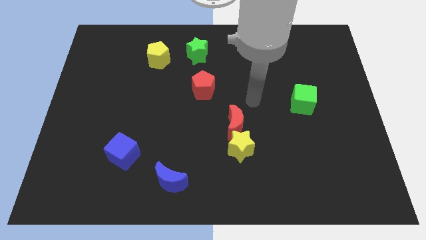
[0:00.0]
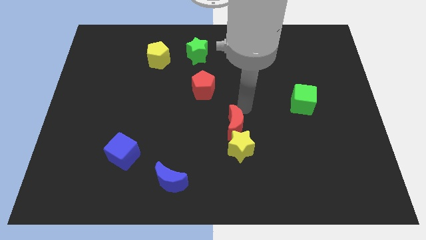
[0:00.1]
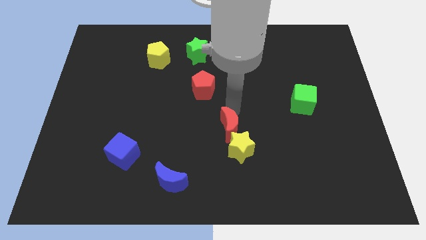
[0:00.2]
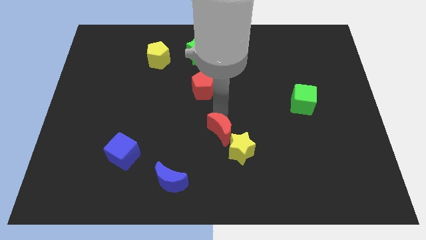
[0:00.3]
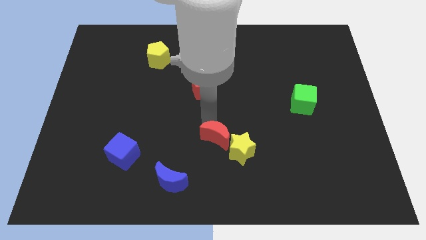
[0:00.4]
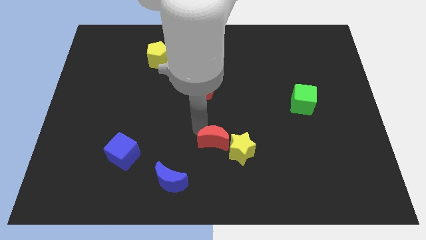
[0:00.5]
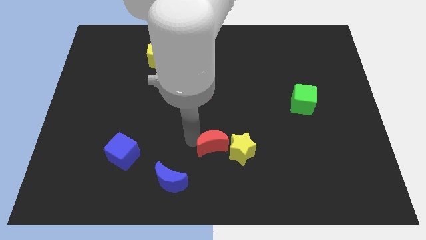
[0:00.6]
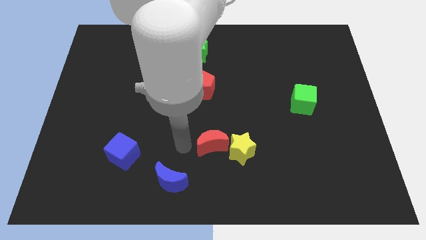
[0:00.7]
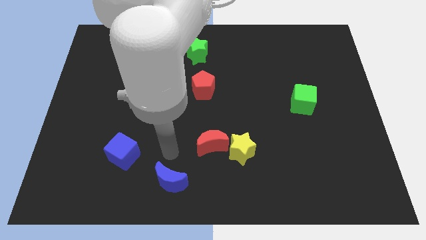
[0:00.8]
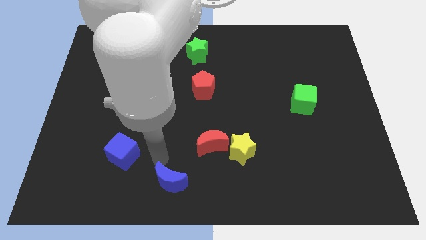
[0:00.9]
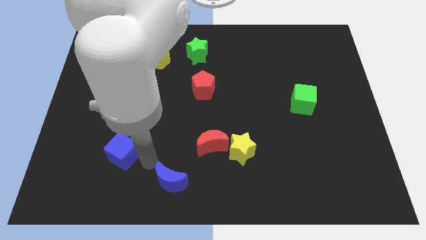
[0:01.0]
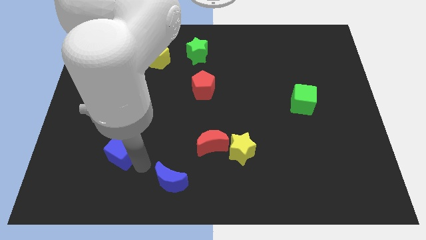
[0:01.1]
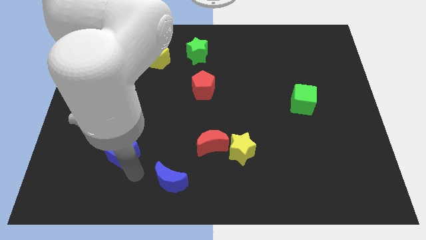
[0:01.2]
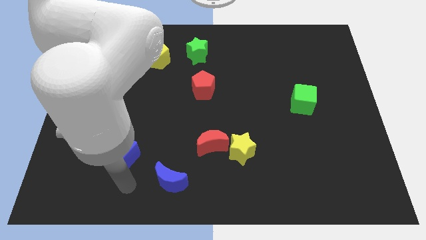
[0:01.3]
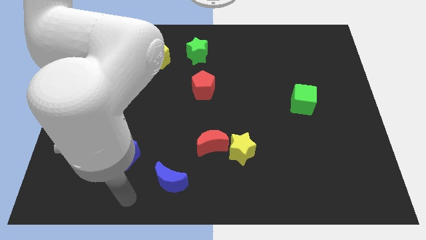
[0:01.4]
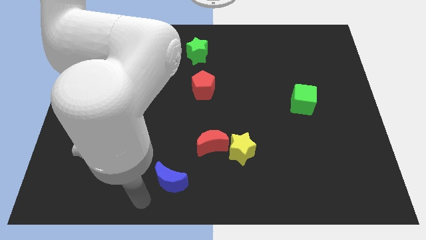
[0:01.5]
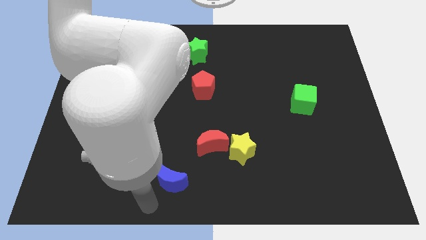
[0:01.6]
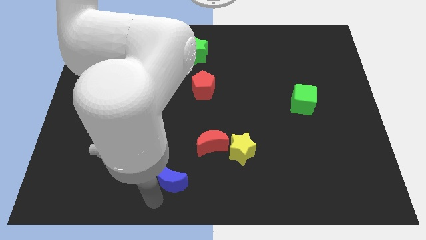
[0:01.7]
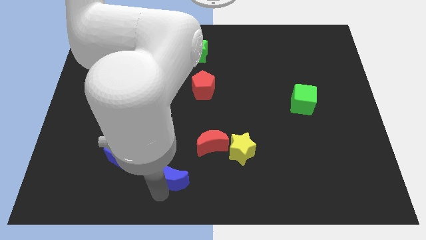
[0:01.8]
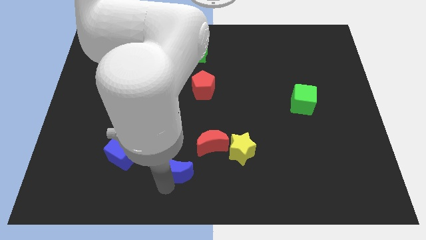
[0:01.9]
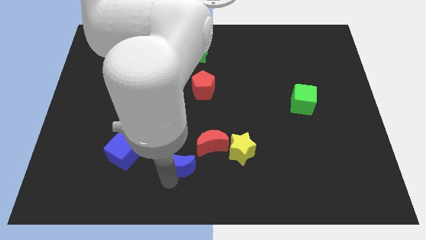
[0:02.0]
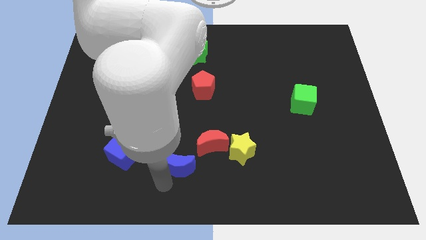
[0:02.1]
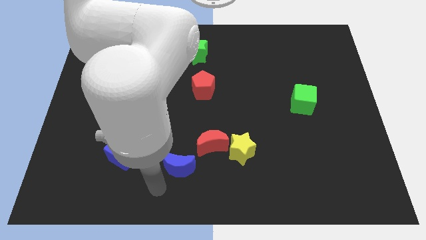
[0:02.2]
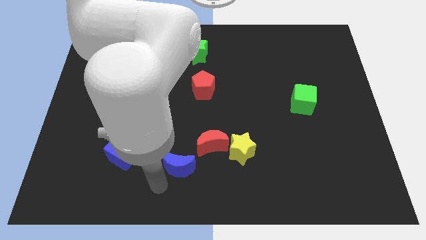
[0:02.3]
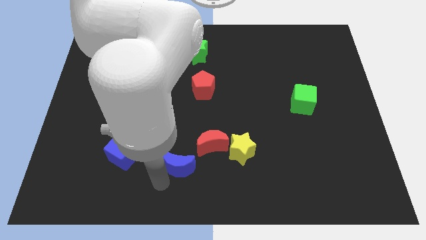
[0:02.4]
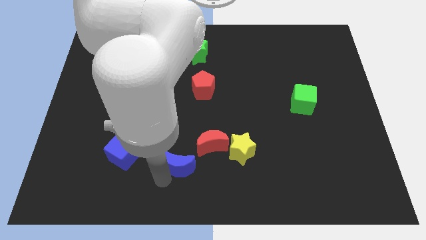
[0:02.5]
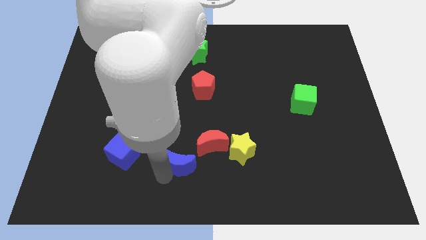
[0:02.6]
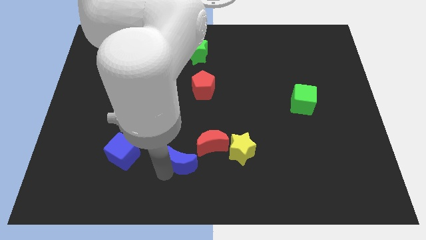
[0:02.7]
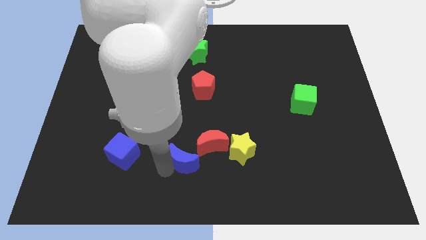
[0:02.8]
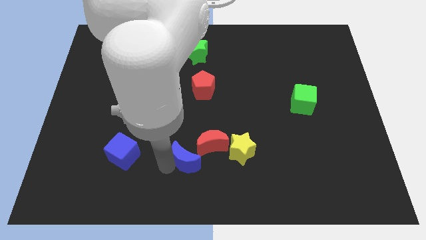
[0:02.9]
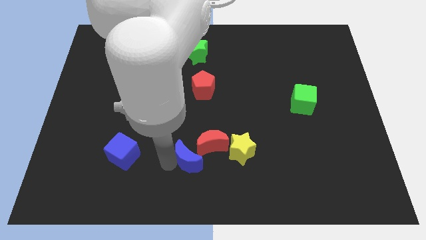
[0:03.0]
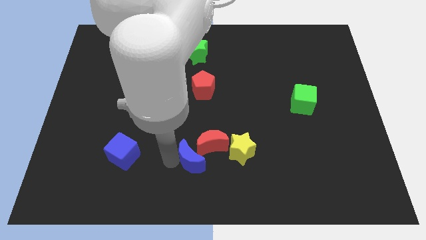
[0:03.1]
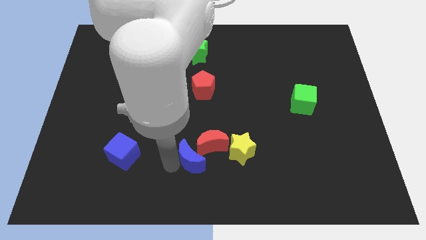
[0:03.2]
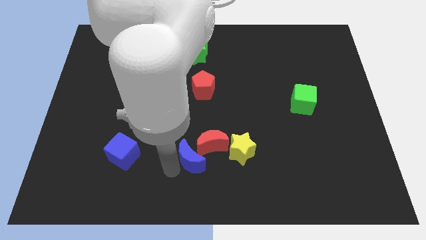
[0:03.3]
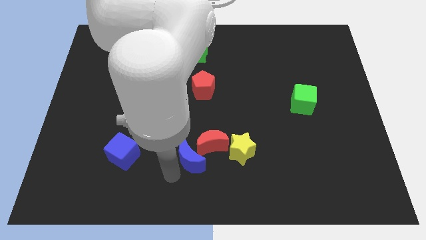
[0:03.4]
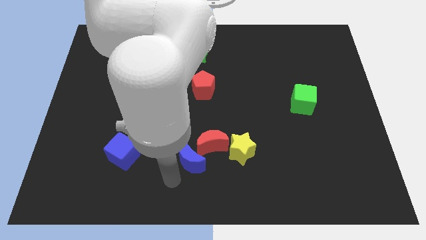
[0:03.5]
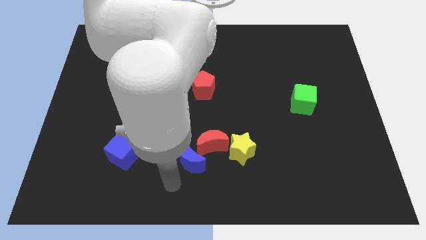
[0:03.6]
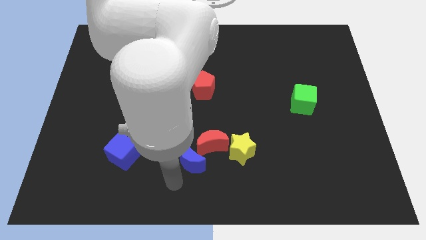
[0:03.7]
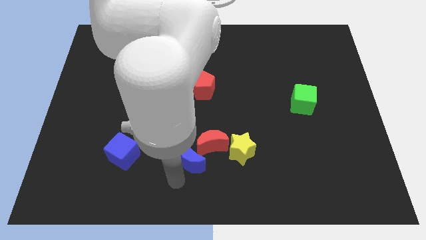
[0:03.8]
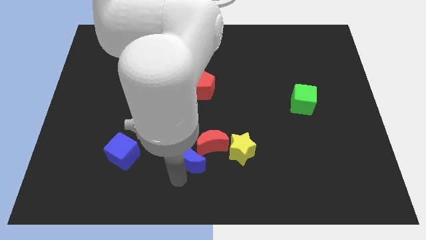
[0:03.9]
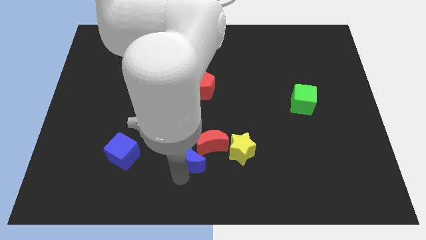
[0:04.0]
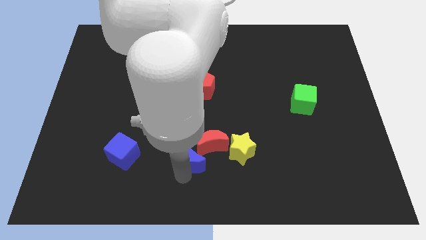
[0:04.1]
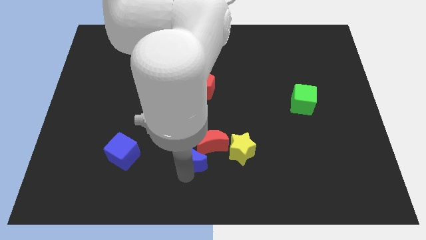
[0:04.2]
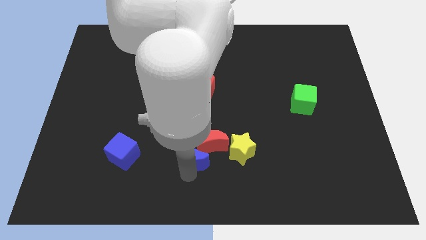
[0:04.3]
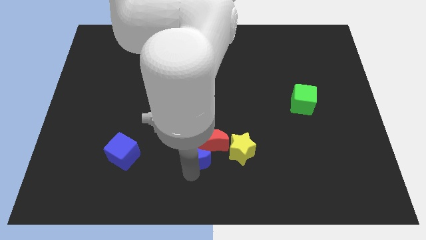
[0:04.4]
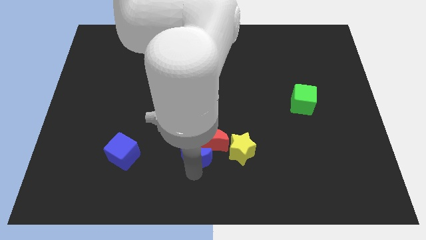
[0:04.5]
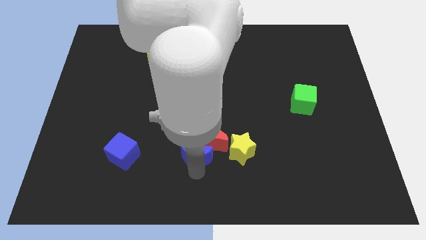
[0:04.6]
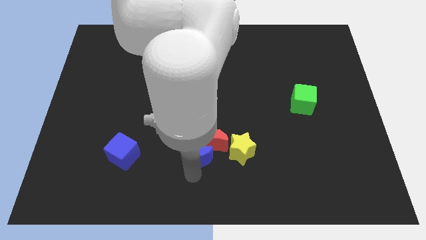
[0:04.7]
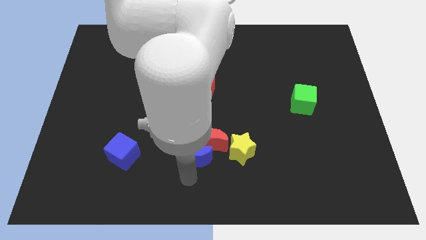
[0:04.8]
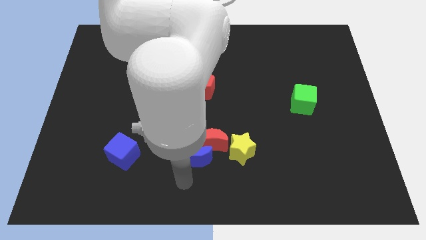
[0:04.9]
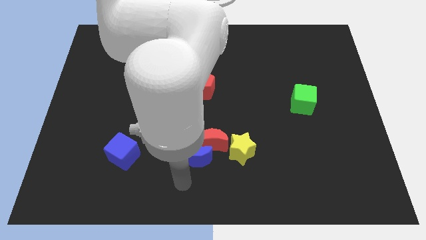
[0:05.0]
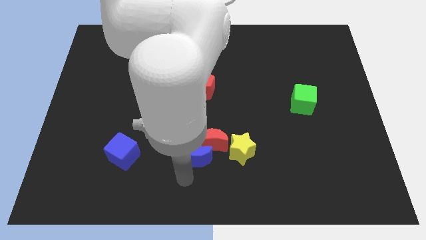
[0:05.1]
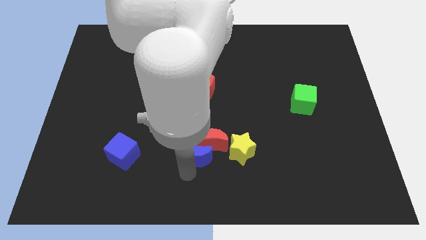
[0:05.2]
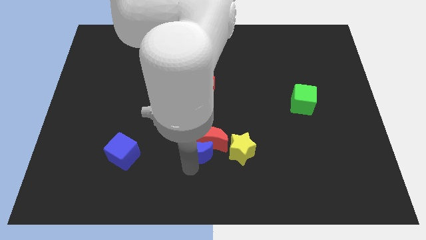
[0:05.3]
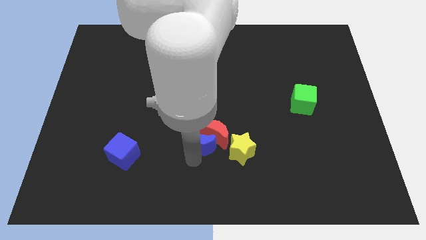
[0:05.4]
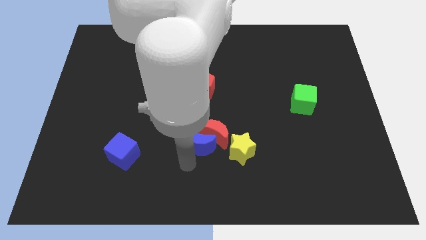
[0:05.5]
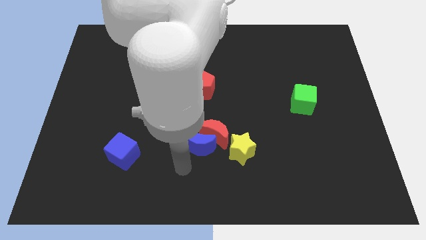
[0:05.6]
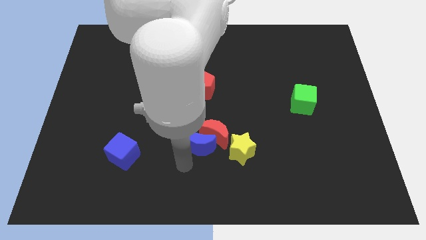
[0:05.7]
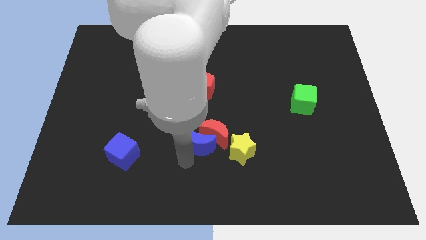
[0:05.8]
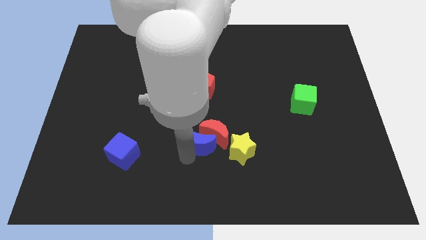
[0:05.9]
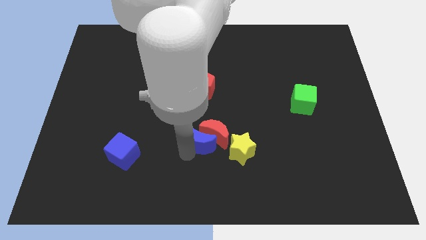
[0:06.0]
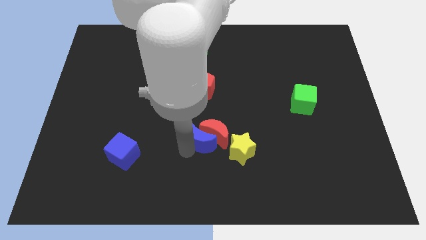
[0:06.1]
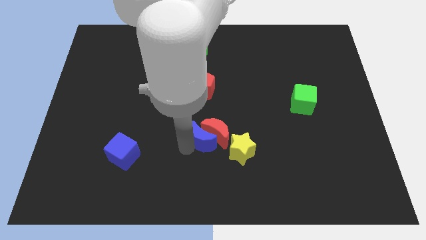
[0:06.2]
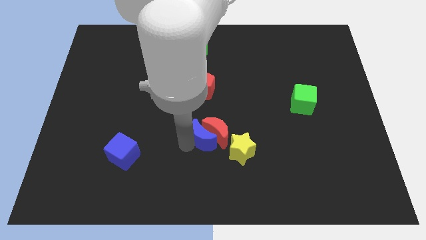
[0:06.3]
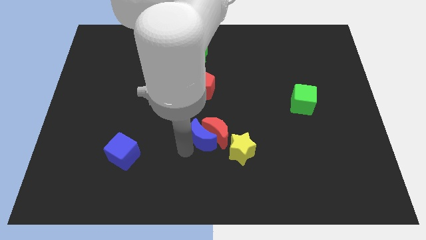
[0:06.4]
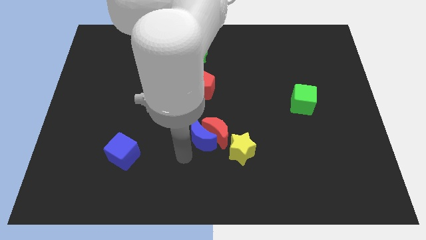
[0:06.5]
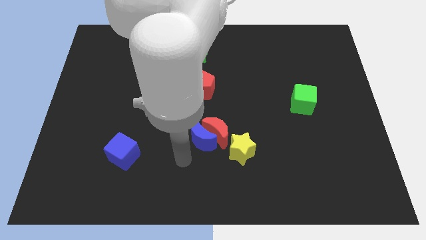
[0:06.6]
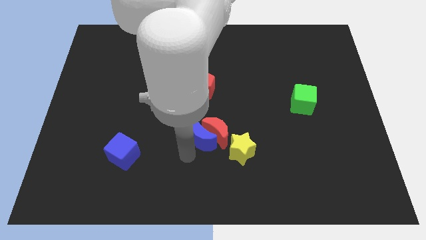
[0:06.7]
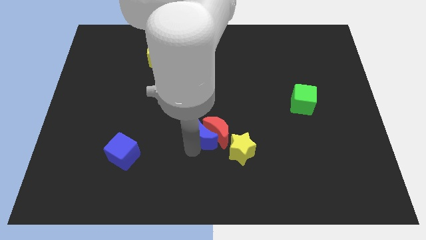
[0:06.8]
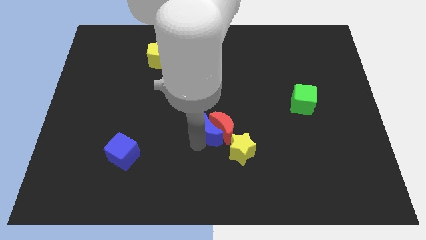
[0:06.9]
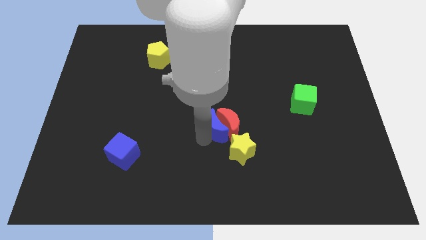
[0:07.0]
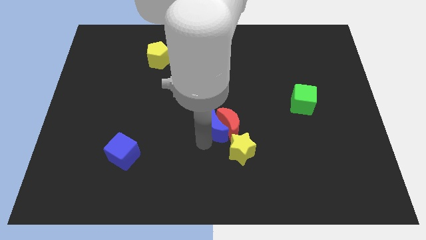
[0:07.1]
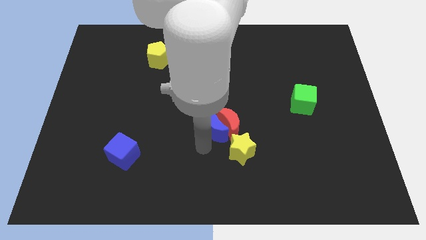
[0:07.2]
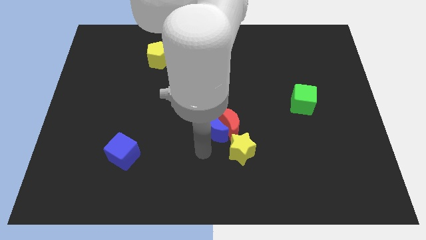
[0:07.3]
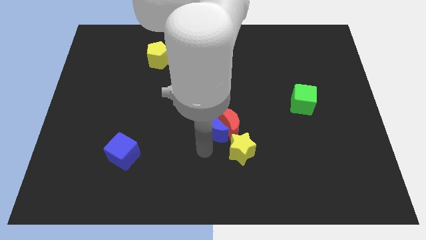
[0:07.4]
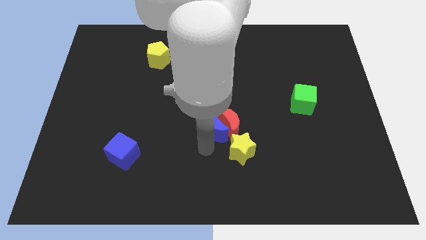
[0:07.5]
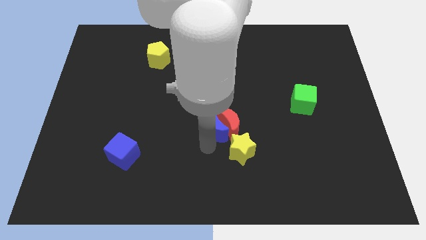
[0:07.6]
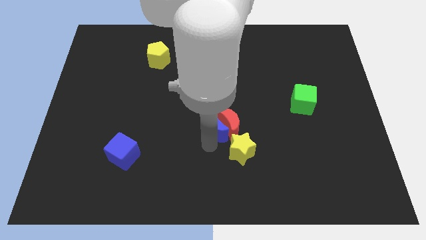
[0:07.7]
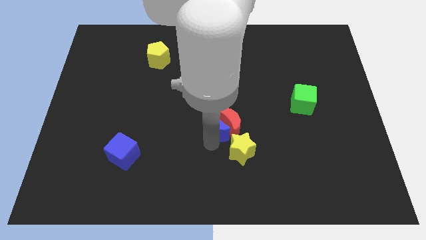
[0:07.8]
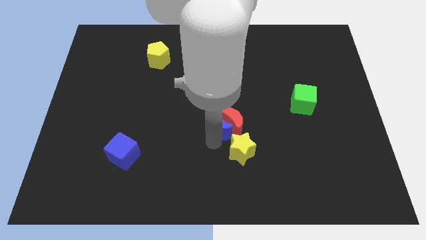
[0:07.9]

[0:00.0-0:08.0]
put the blue moon to the top side of the yellow star

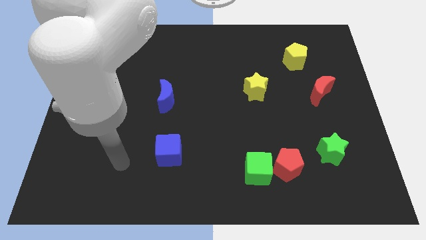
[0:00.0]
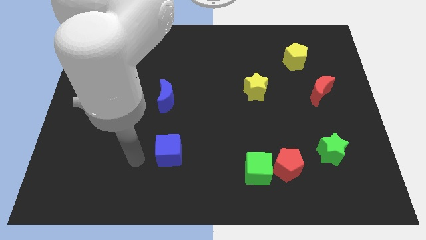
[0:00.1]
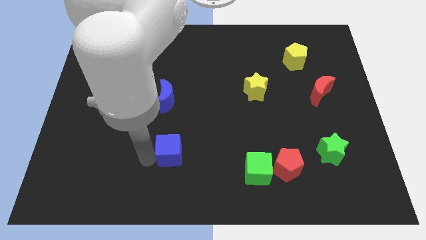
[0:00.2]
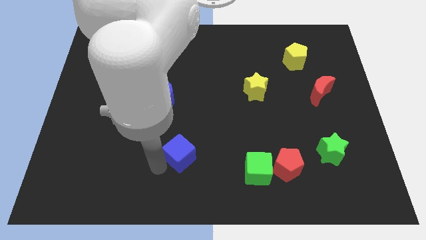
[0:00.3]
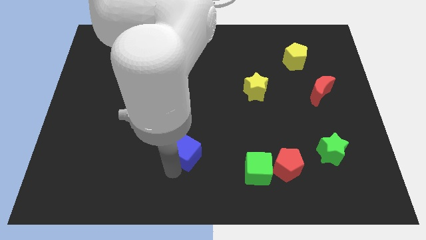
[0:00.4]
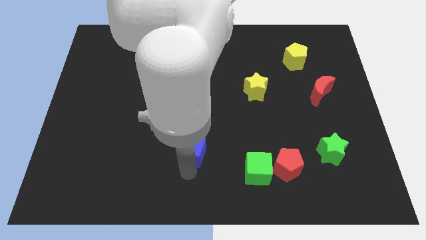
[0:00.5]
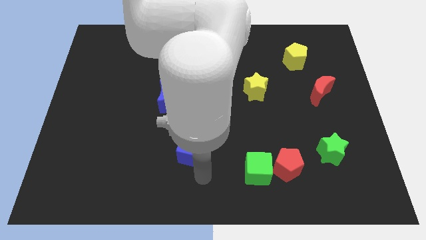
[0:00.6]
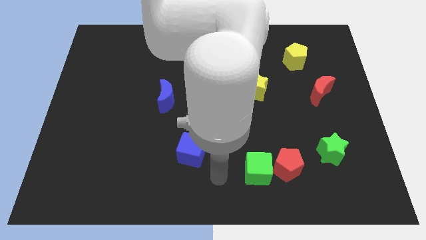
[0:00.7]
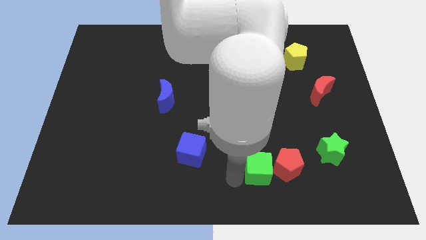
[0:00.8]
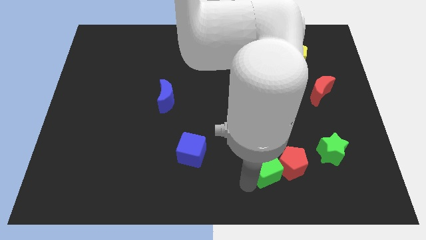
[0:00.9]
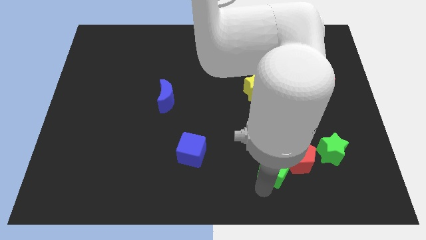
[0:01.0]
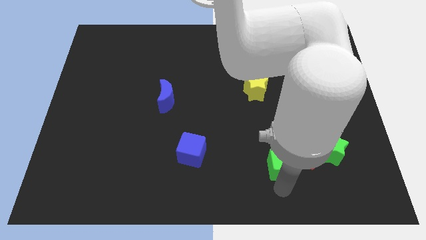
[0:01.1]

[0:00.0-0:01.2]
put the red pentagon to the top left of the green star
